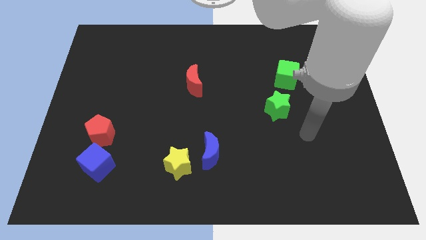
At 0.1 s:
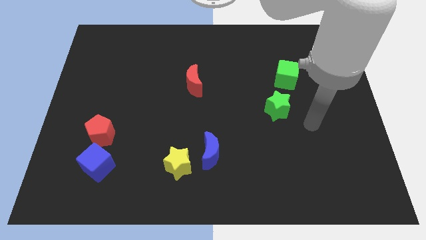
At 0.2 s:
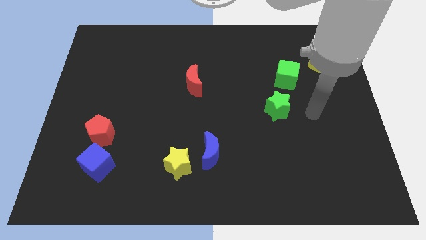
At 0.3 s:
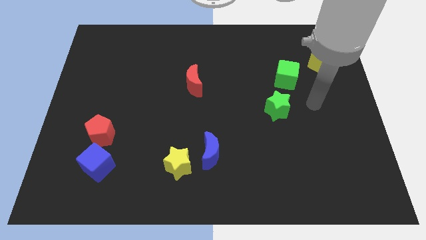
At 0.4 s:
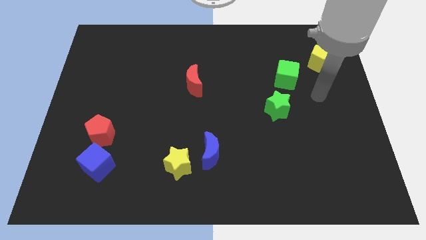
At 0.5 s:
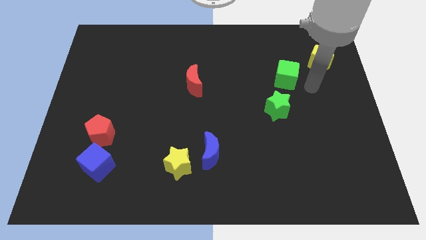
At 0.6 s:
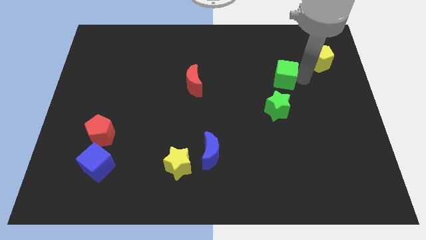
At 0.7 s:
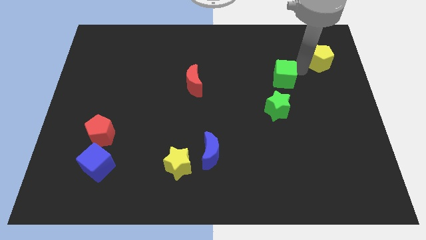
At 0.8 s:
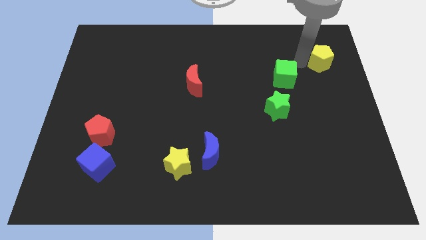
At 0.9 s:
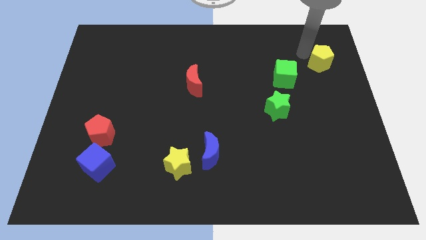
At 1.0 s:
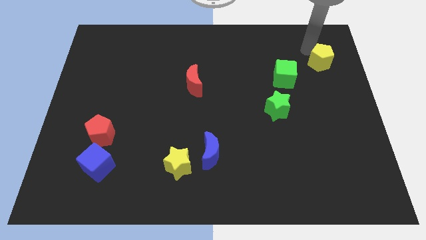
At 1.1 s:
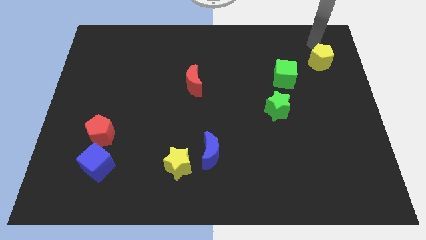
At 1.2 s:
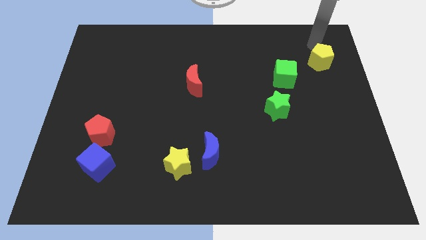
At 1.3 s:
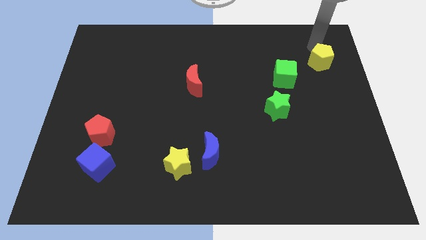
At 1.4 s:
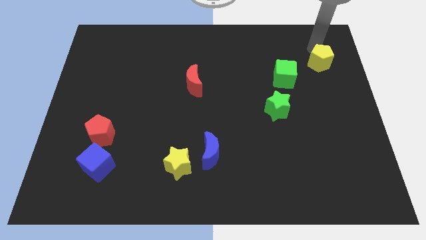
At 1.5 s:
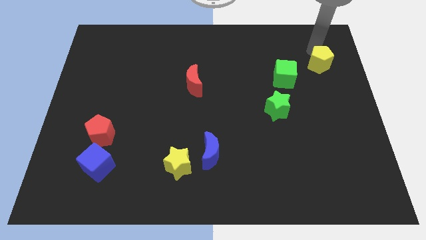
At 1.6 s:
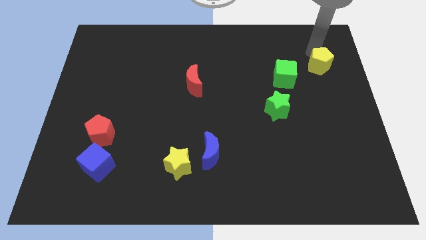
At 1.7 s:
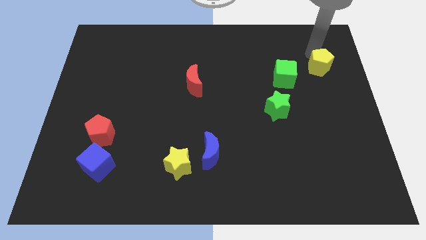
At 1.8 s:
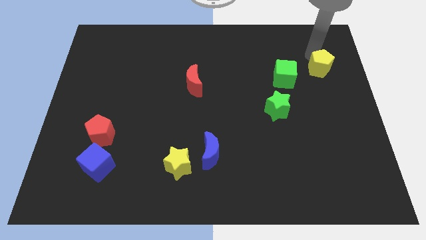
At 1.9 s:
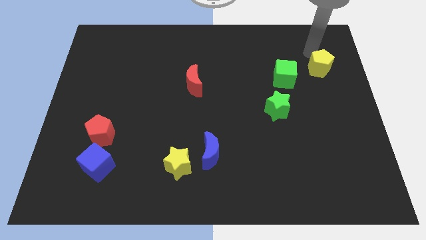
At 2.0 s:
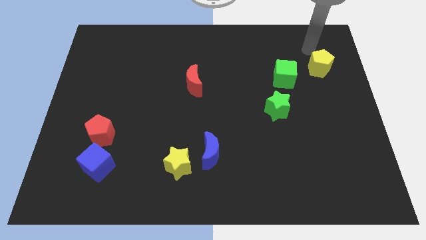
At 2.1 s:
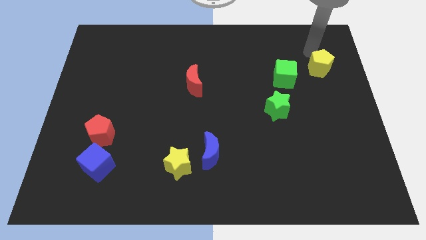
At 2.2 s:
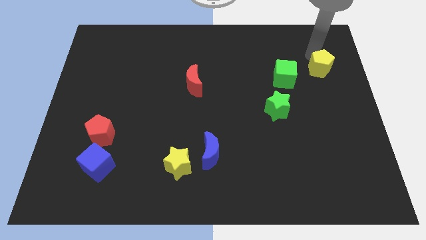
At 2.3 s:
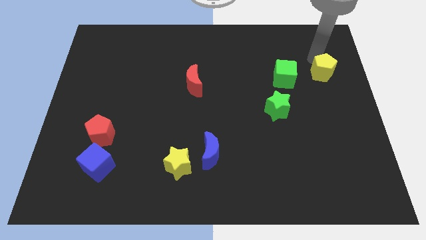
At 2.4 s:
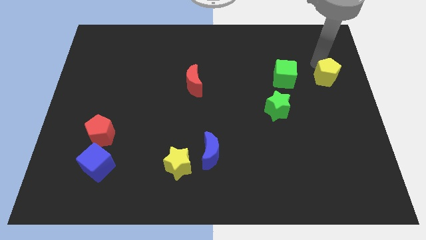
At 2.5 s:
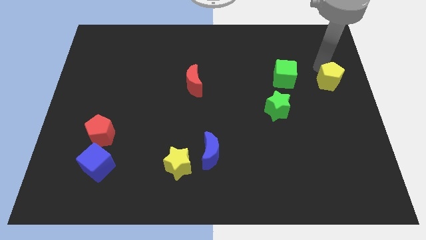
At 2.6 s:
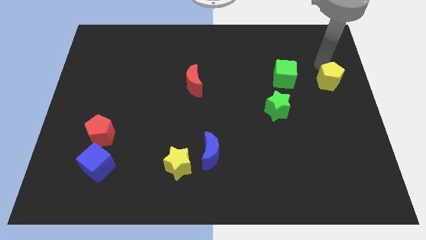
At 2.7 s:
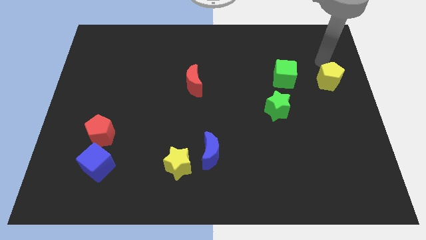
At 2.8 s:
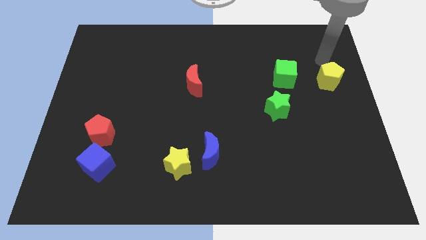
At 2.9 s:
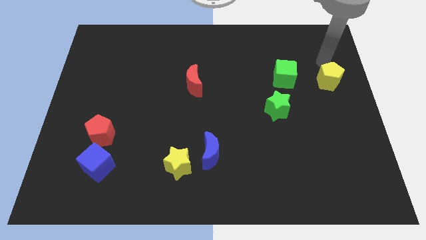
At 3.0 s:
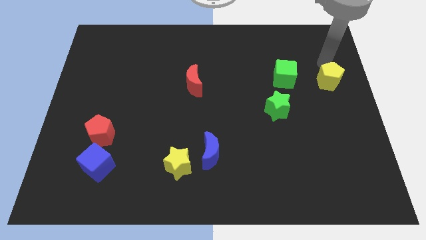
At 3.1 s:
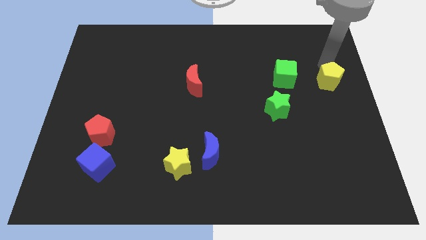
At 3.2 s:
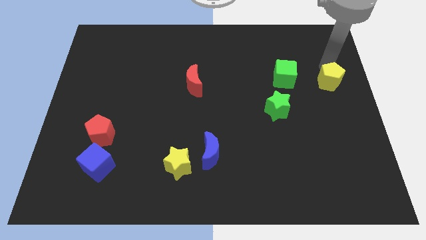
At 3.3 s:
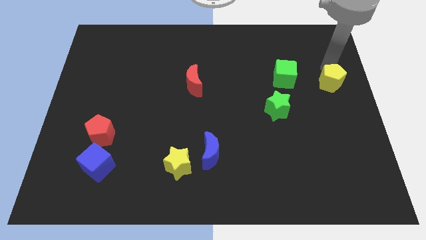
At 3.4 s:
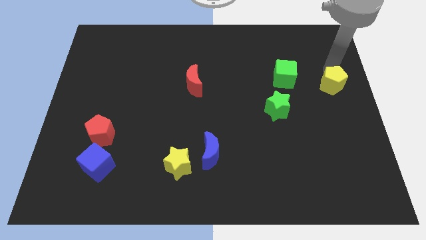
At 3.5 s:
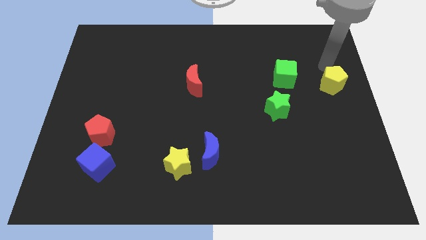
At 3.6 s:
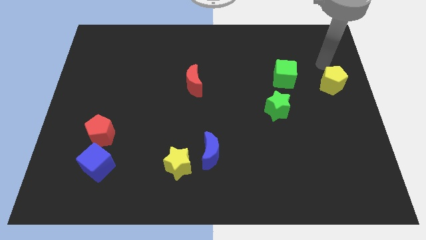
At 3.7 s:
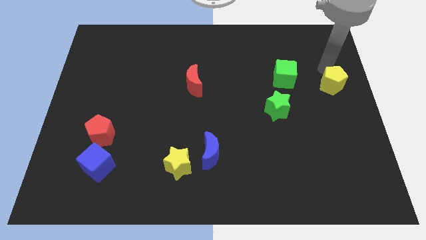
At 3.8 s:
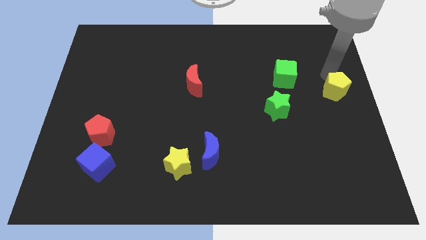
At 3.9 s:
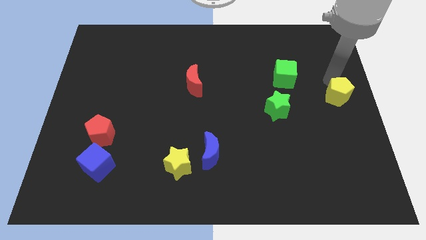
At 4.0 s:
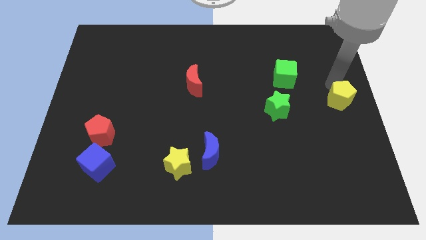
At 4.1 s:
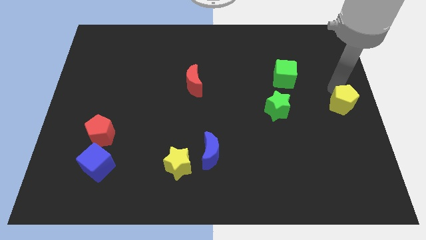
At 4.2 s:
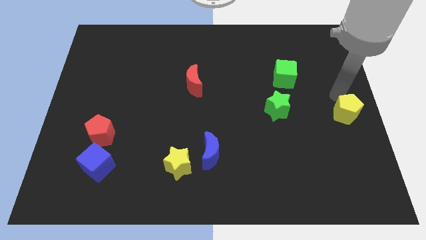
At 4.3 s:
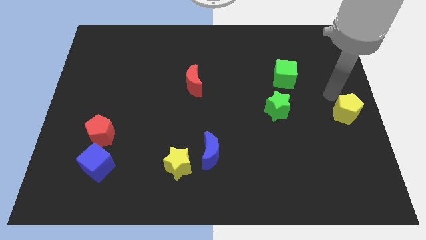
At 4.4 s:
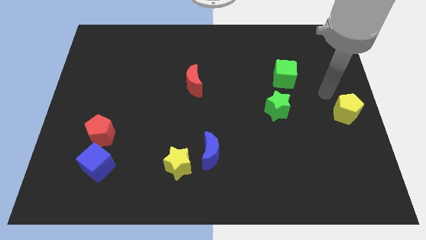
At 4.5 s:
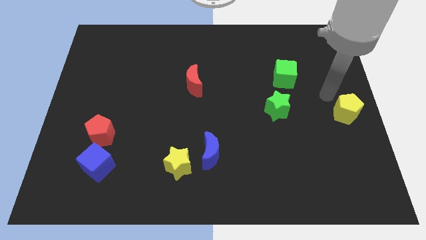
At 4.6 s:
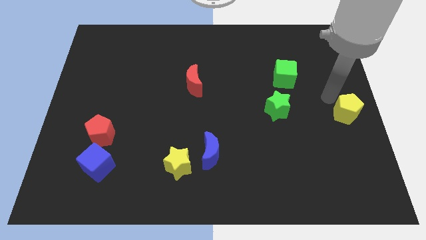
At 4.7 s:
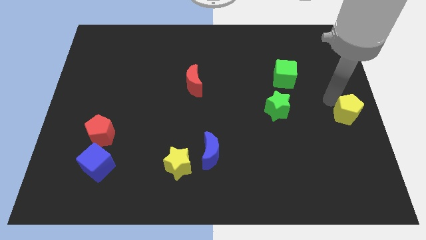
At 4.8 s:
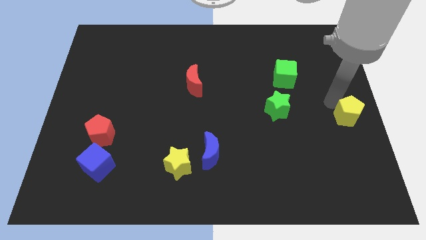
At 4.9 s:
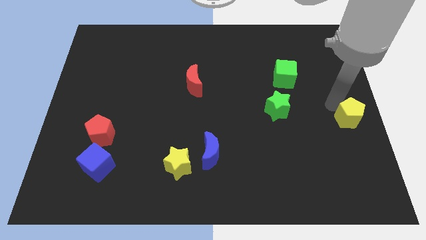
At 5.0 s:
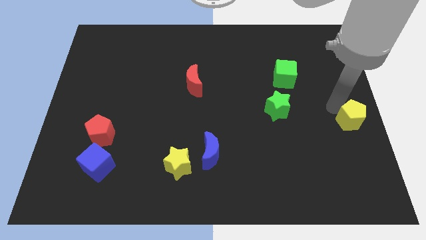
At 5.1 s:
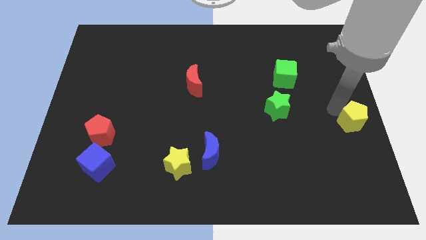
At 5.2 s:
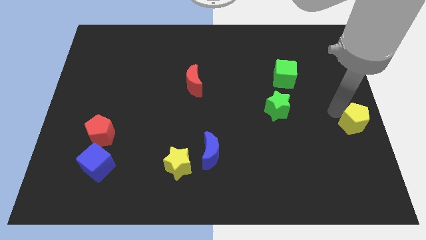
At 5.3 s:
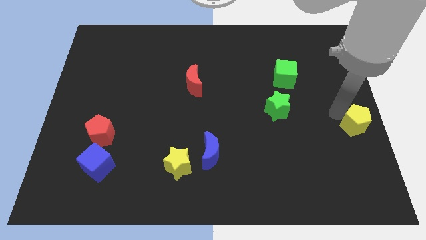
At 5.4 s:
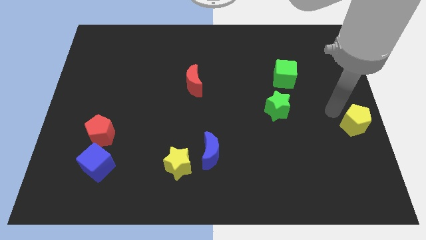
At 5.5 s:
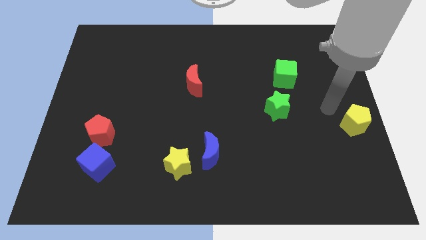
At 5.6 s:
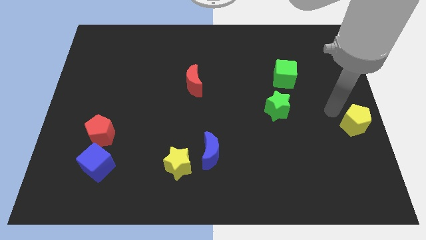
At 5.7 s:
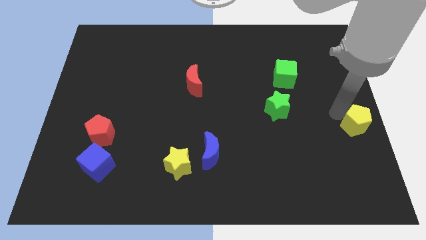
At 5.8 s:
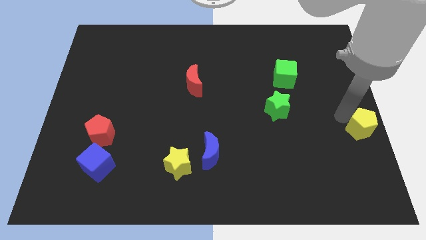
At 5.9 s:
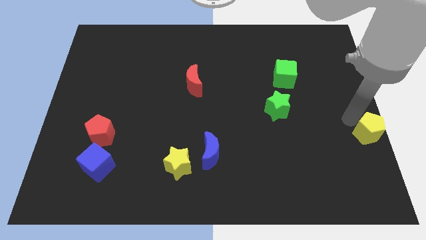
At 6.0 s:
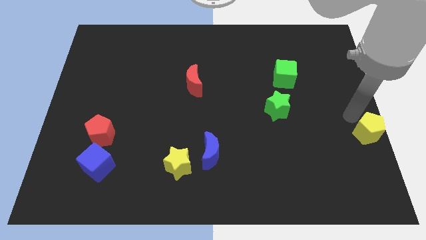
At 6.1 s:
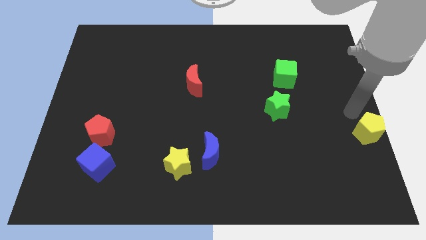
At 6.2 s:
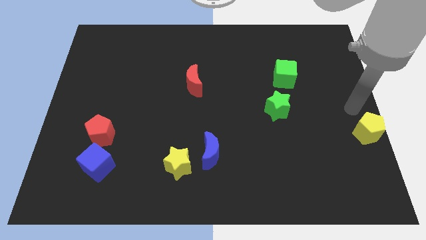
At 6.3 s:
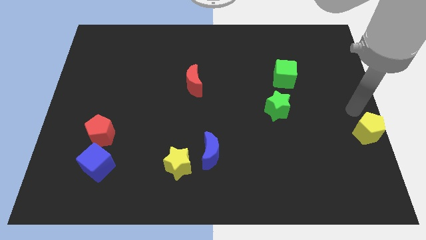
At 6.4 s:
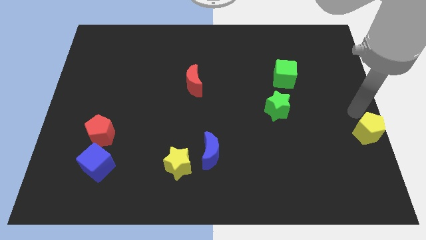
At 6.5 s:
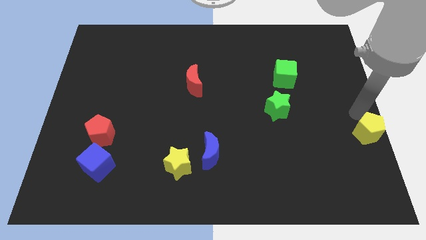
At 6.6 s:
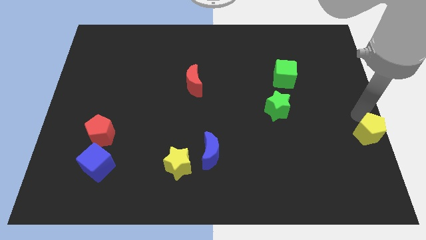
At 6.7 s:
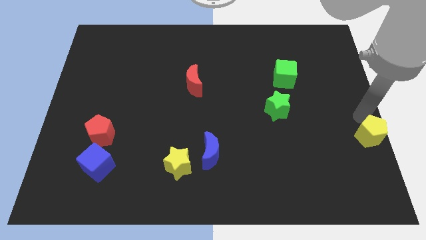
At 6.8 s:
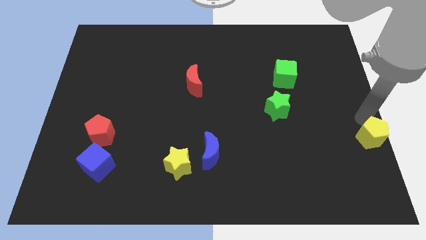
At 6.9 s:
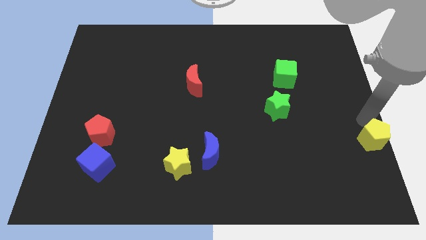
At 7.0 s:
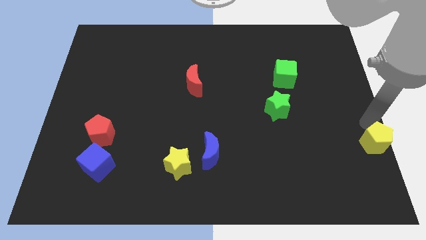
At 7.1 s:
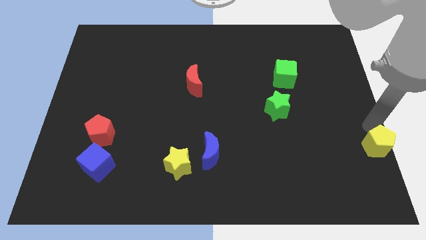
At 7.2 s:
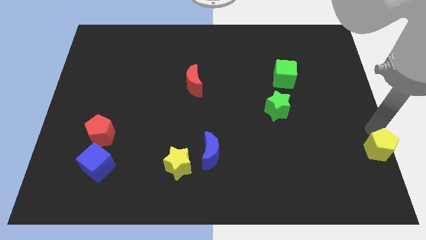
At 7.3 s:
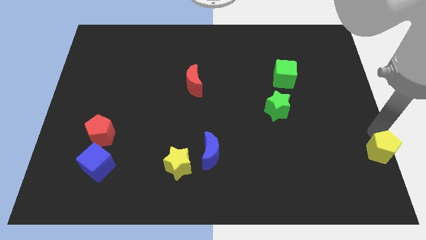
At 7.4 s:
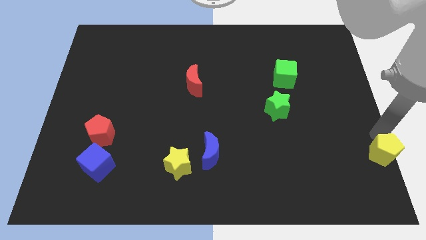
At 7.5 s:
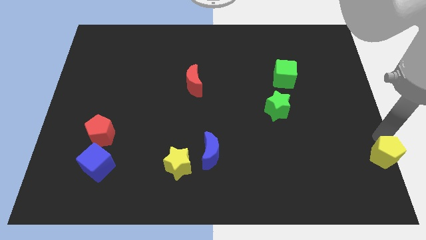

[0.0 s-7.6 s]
move the yellow pentagon to the bottom right corner
